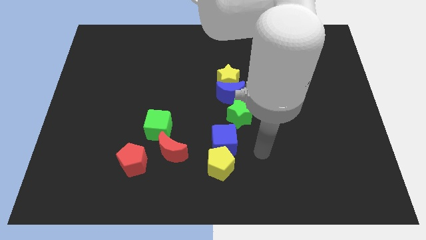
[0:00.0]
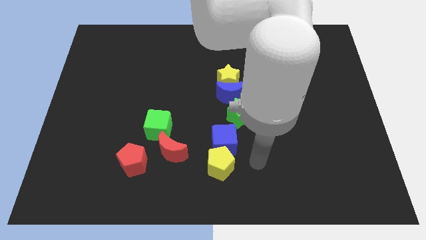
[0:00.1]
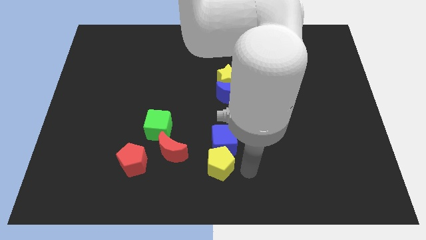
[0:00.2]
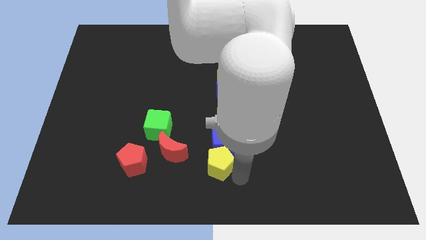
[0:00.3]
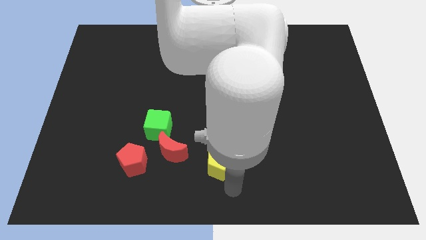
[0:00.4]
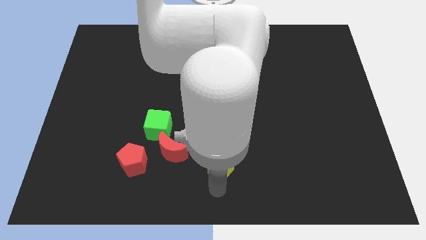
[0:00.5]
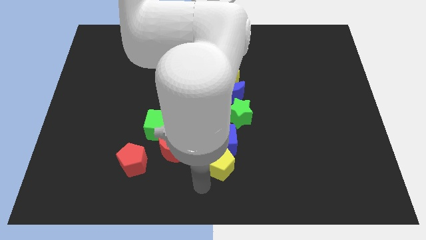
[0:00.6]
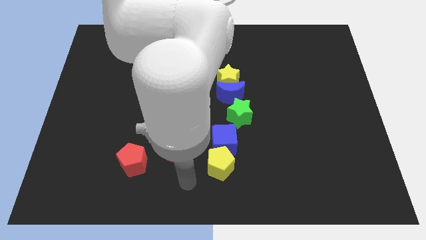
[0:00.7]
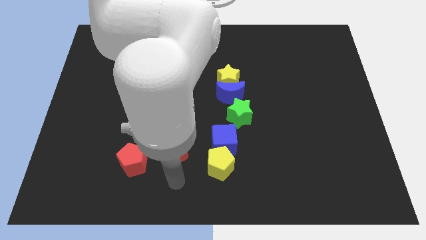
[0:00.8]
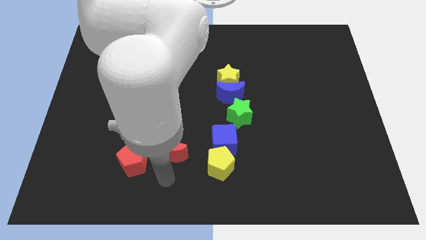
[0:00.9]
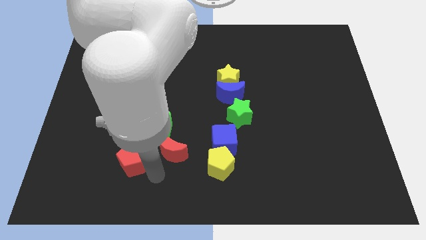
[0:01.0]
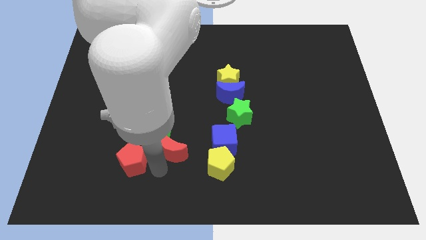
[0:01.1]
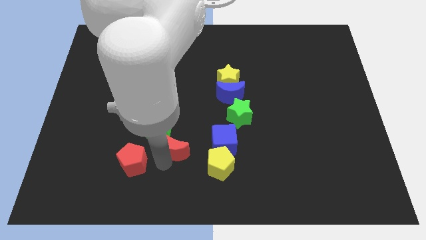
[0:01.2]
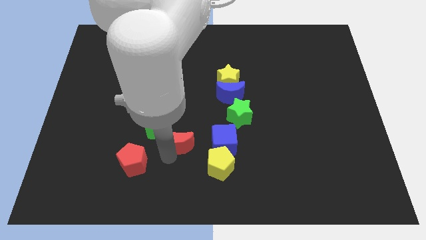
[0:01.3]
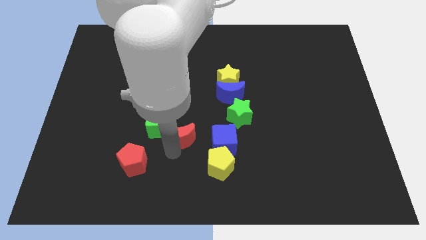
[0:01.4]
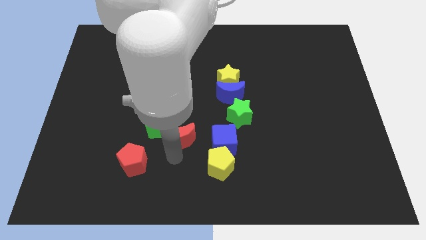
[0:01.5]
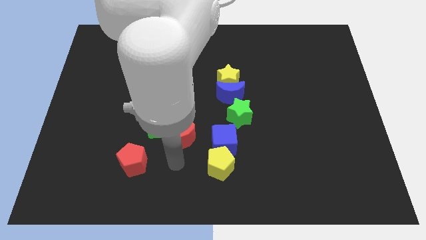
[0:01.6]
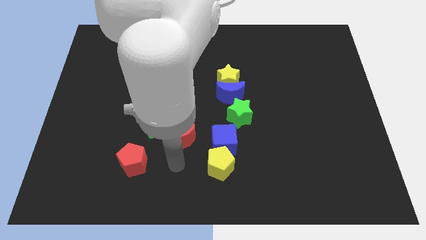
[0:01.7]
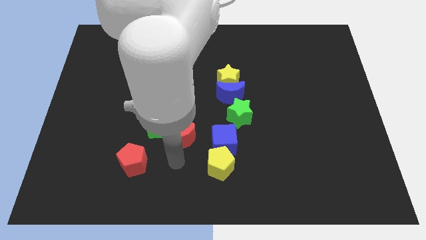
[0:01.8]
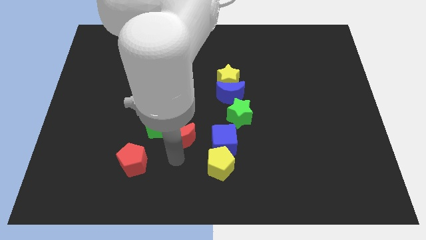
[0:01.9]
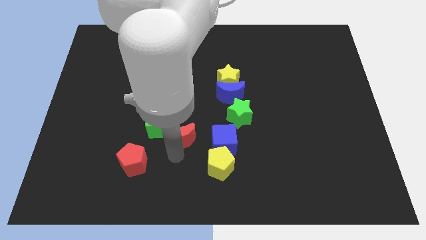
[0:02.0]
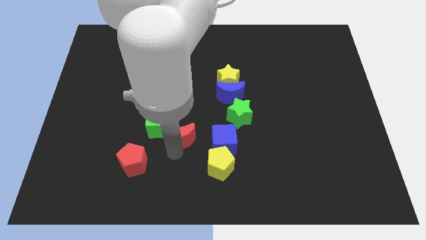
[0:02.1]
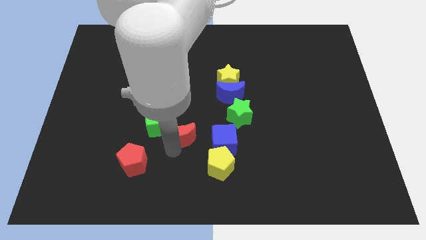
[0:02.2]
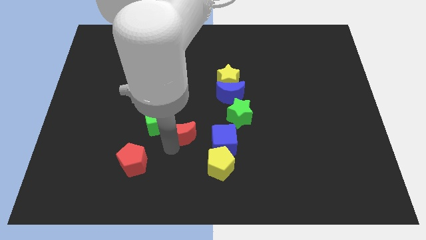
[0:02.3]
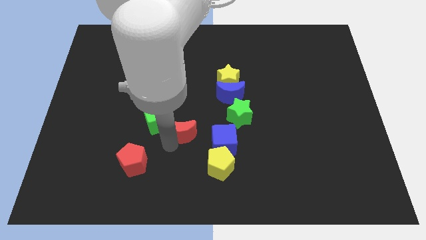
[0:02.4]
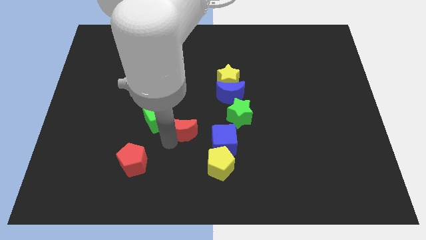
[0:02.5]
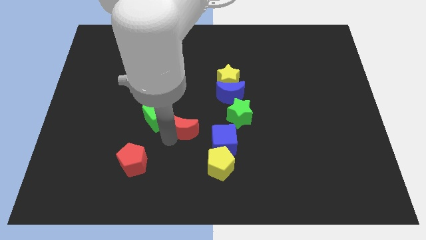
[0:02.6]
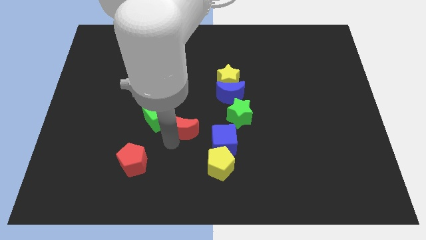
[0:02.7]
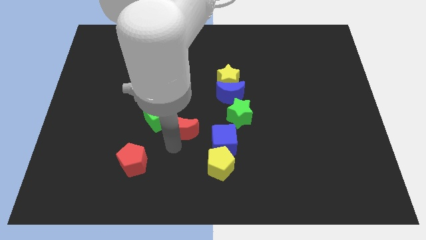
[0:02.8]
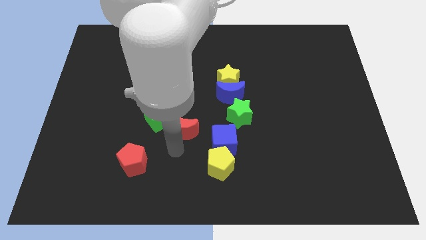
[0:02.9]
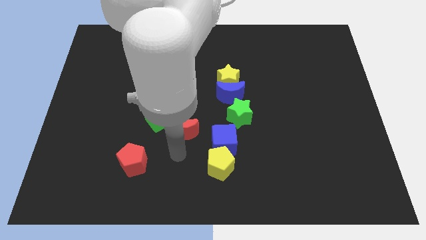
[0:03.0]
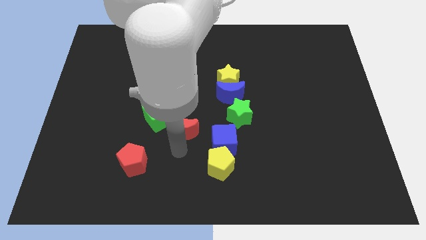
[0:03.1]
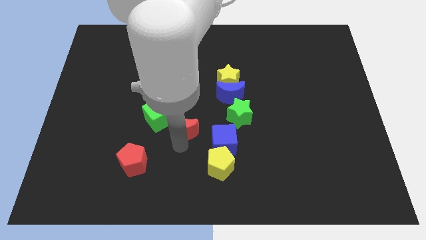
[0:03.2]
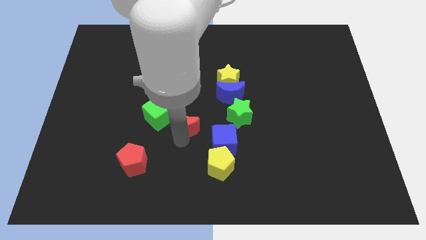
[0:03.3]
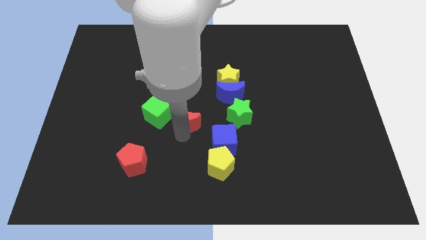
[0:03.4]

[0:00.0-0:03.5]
move the red moon upwards a little

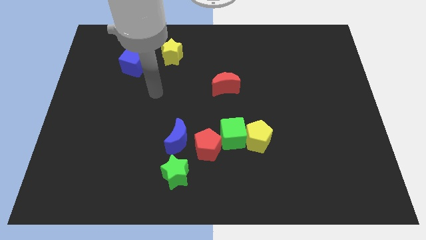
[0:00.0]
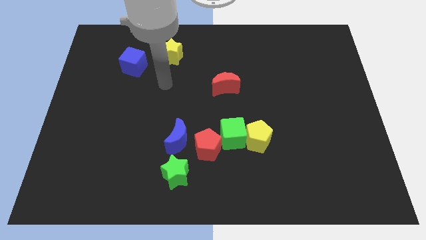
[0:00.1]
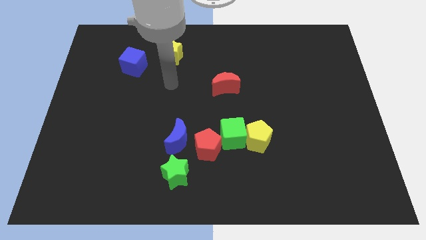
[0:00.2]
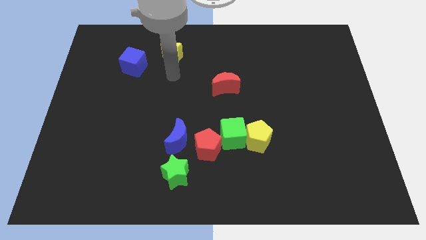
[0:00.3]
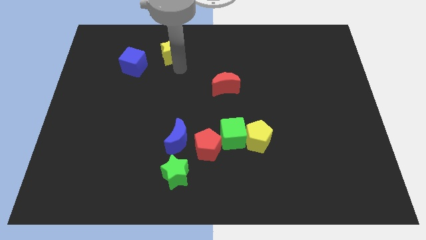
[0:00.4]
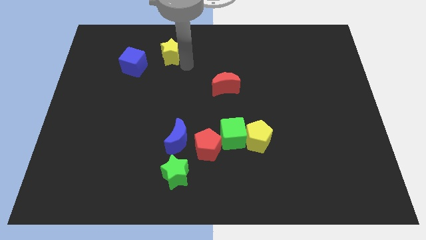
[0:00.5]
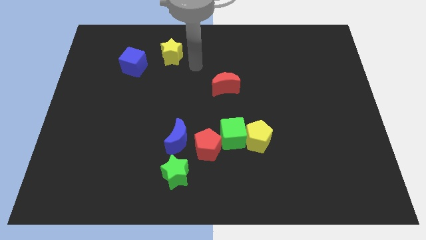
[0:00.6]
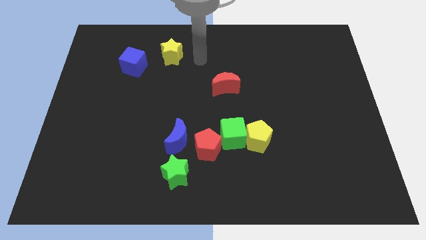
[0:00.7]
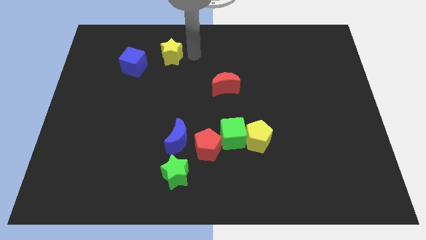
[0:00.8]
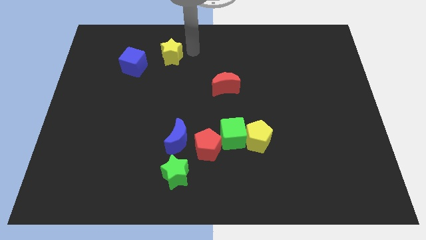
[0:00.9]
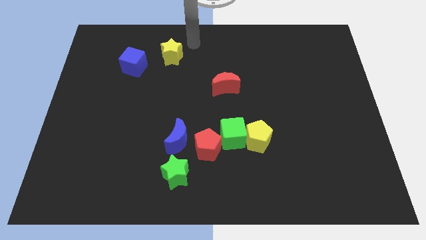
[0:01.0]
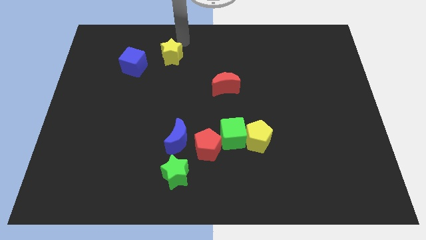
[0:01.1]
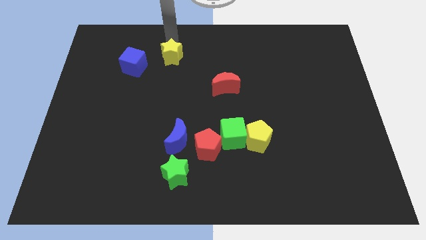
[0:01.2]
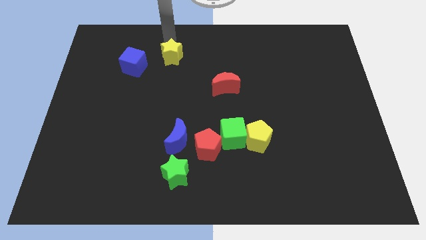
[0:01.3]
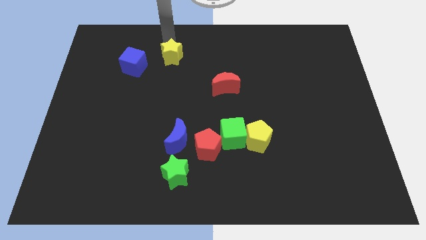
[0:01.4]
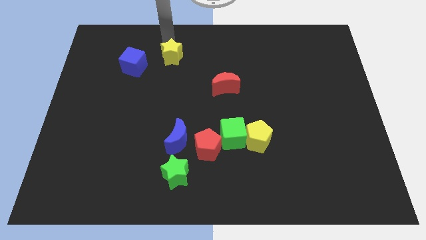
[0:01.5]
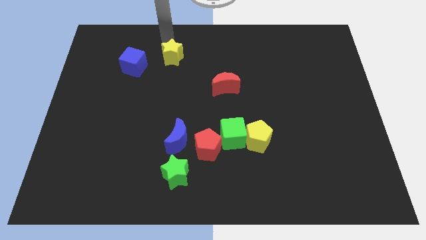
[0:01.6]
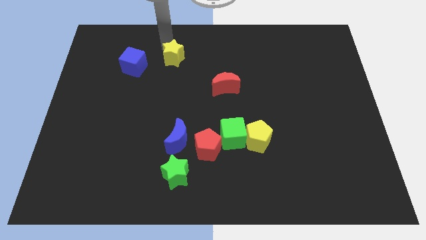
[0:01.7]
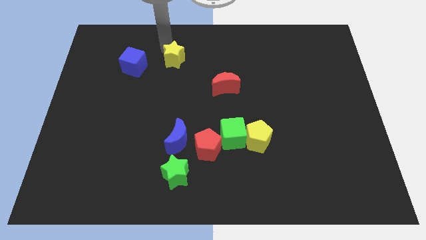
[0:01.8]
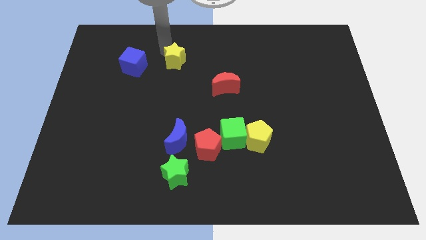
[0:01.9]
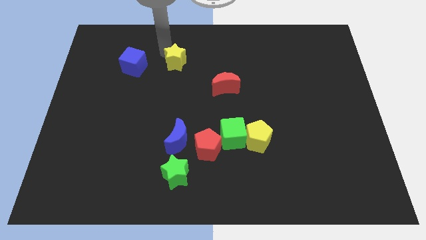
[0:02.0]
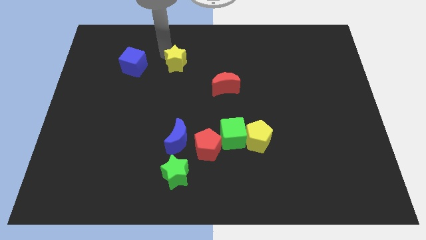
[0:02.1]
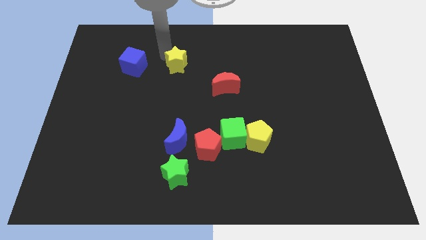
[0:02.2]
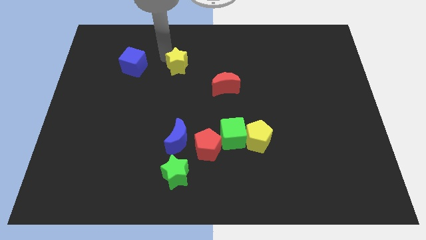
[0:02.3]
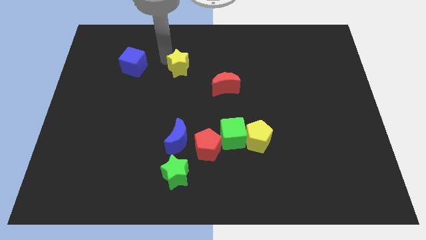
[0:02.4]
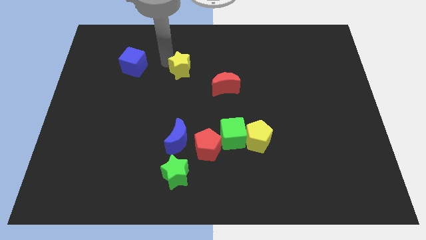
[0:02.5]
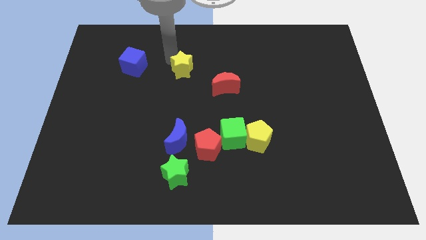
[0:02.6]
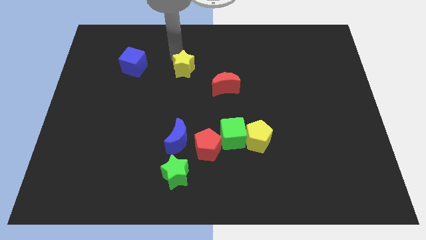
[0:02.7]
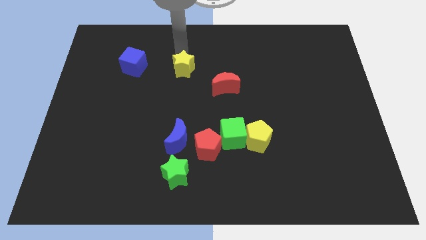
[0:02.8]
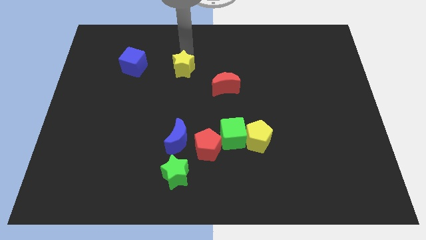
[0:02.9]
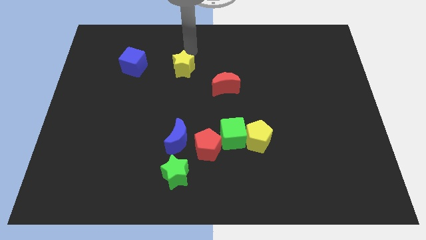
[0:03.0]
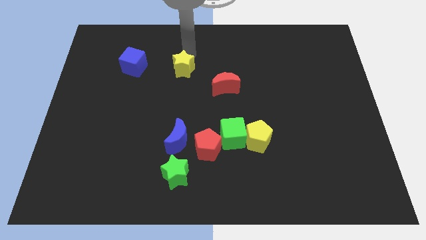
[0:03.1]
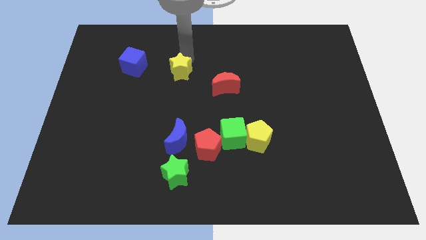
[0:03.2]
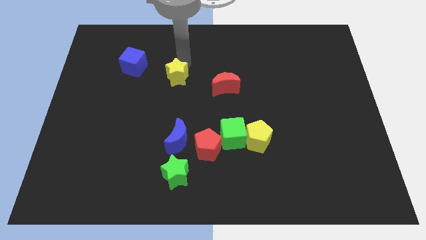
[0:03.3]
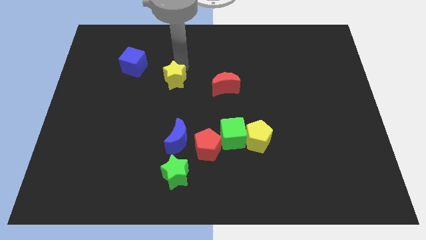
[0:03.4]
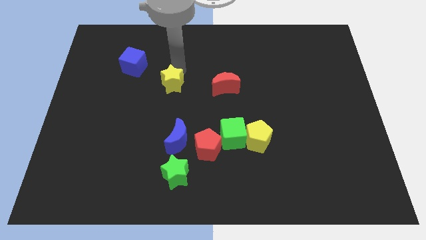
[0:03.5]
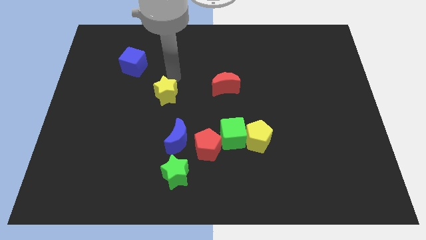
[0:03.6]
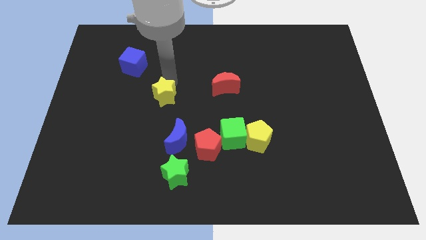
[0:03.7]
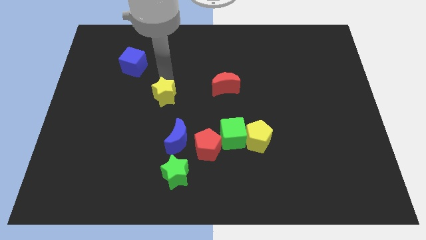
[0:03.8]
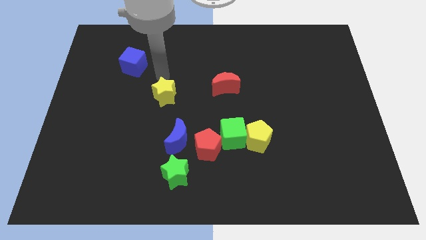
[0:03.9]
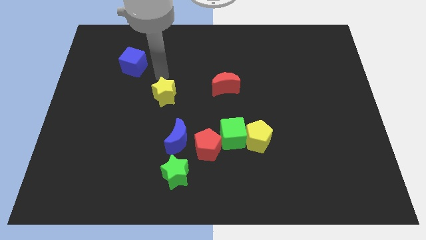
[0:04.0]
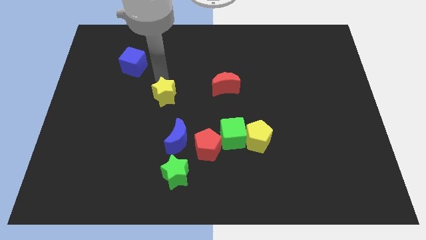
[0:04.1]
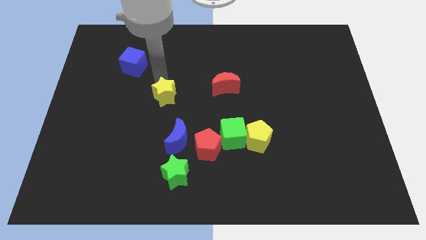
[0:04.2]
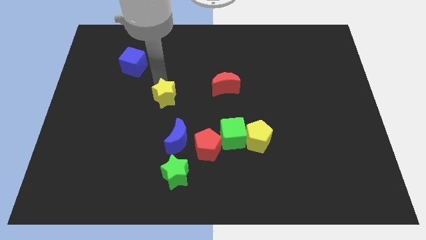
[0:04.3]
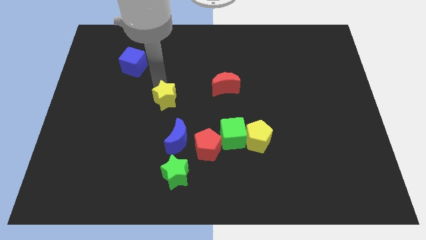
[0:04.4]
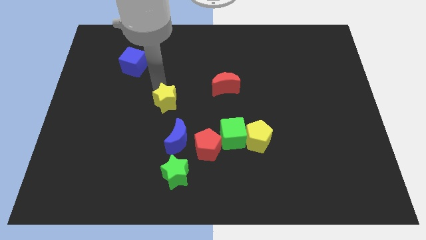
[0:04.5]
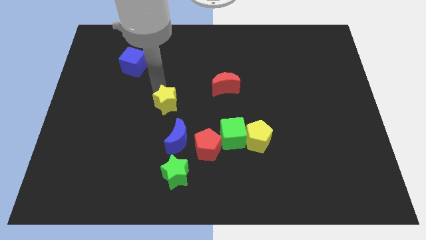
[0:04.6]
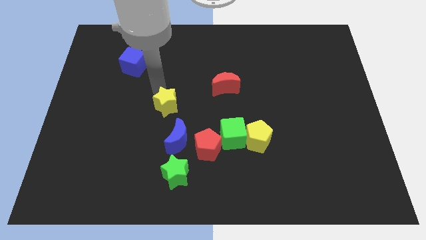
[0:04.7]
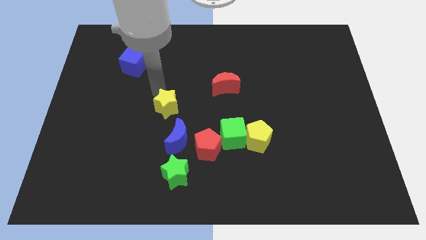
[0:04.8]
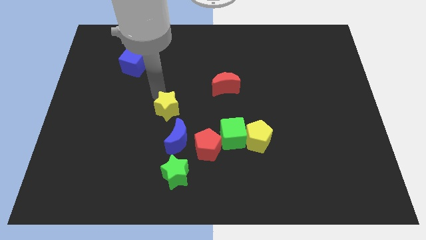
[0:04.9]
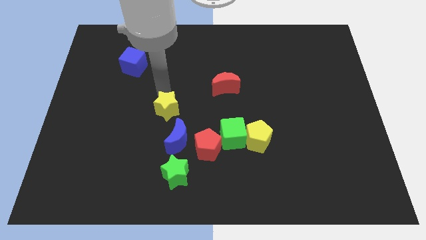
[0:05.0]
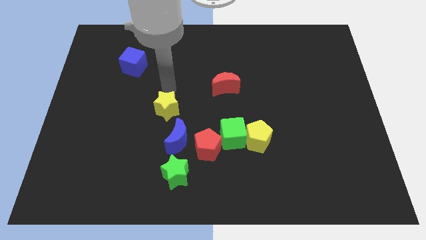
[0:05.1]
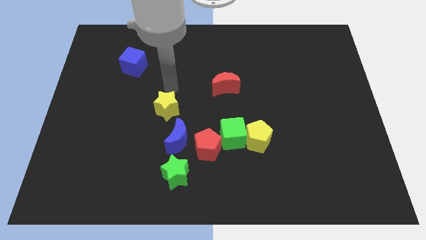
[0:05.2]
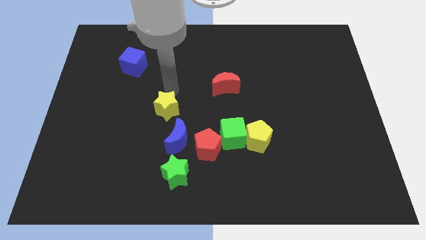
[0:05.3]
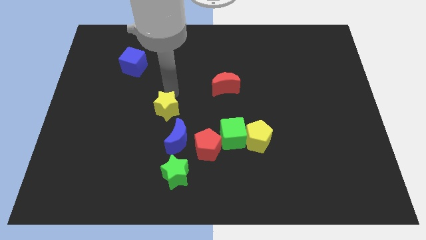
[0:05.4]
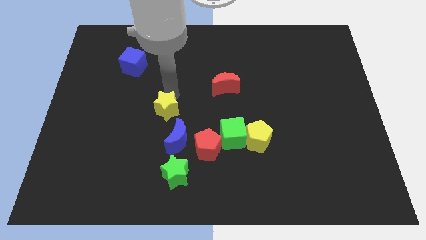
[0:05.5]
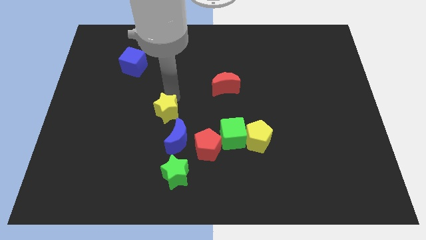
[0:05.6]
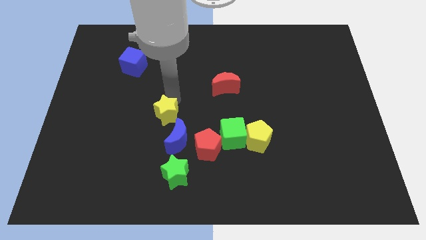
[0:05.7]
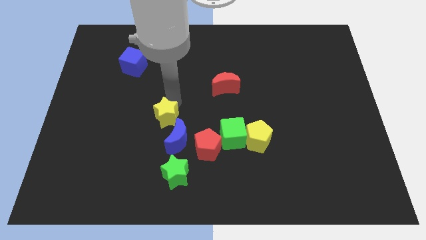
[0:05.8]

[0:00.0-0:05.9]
slide the yellow star downwards
